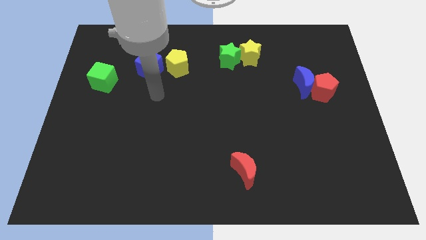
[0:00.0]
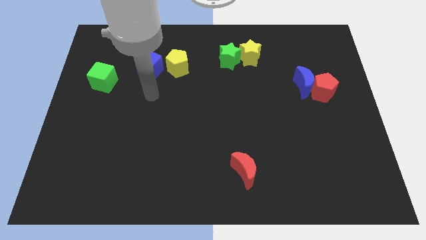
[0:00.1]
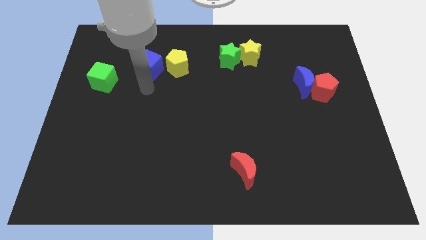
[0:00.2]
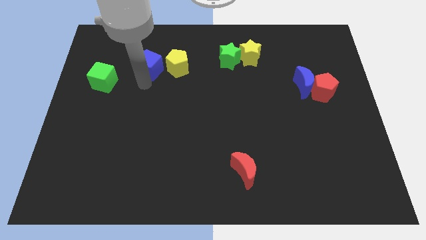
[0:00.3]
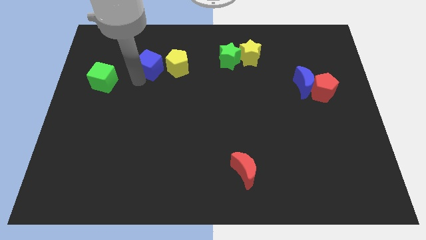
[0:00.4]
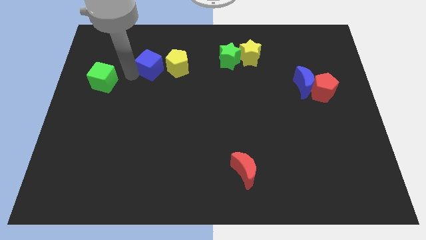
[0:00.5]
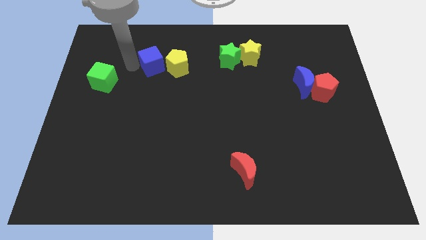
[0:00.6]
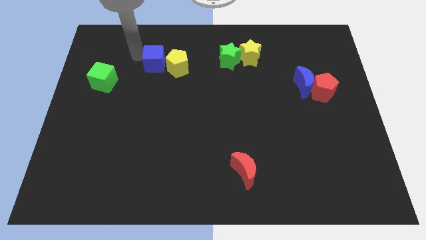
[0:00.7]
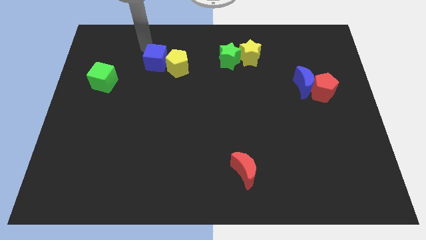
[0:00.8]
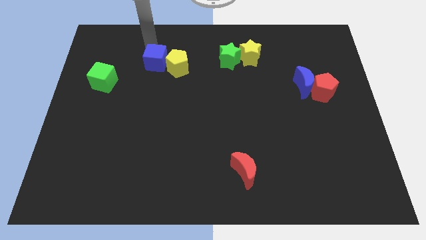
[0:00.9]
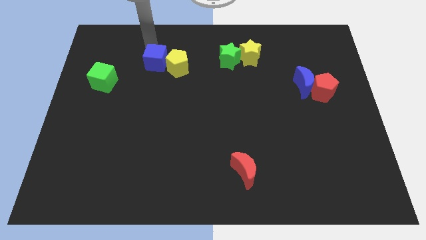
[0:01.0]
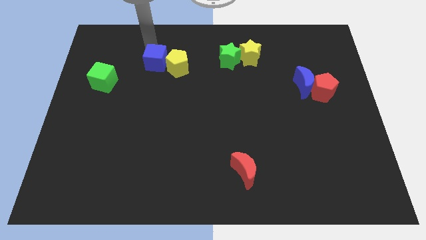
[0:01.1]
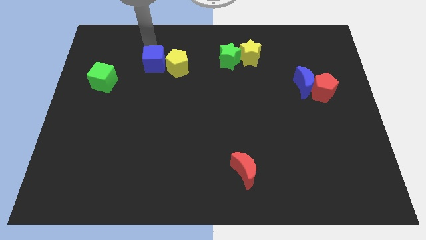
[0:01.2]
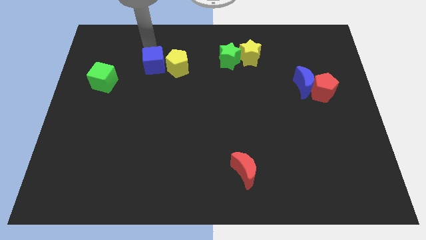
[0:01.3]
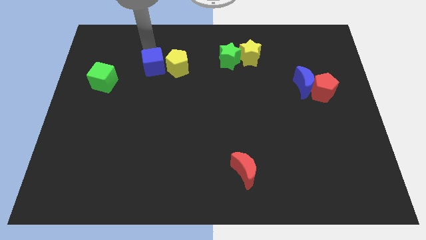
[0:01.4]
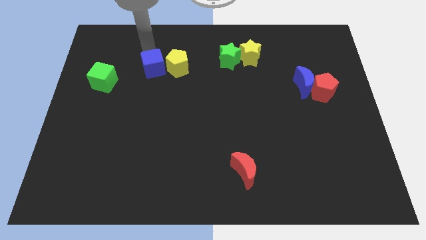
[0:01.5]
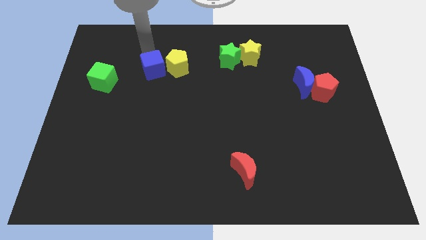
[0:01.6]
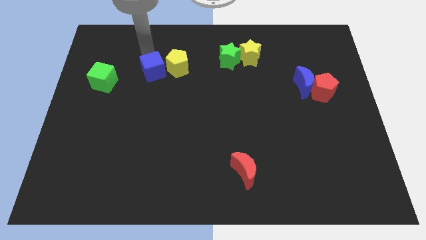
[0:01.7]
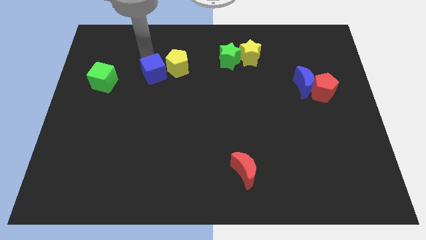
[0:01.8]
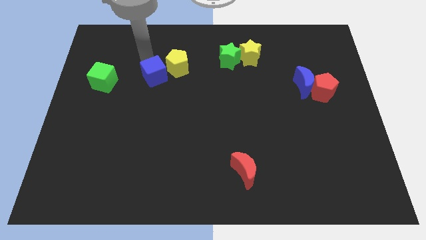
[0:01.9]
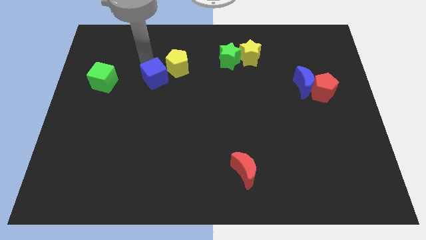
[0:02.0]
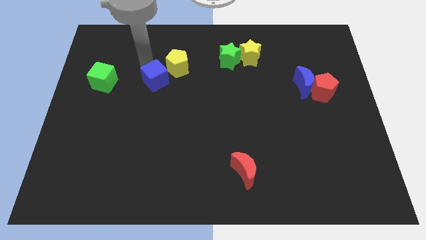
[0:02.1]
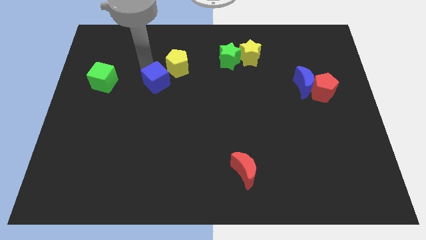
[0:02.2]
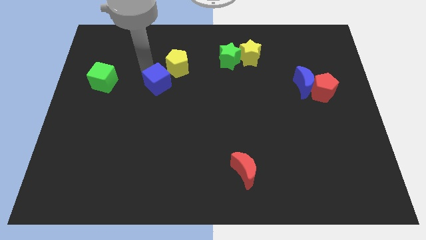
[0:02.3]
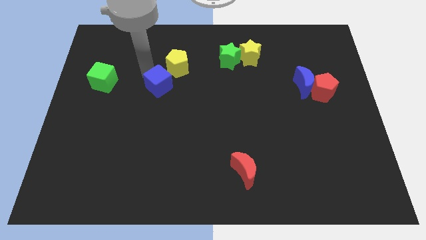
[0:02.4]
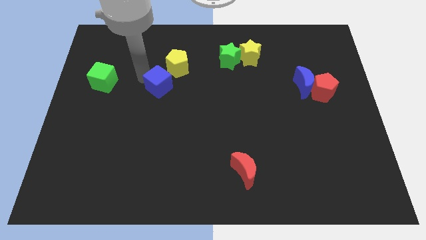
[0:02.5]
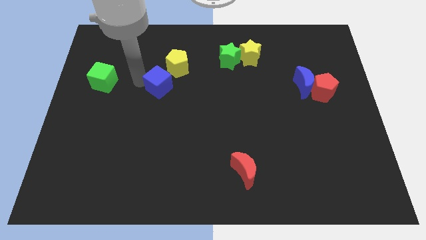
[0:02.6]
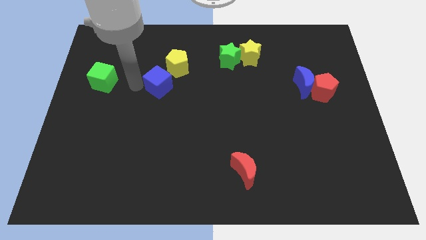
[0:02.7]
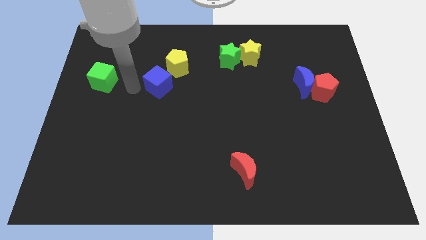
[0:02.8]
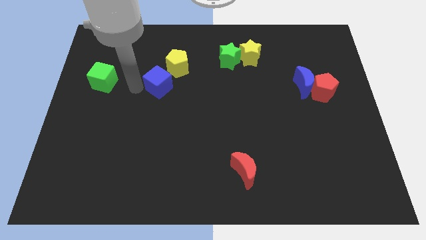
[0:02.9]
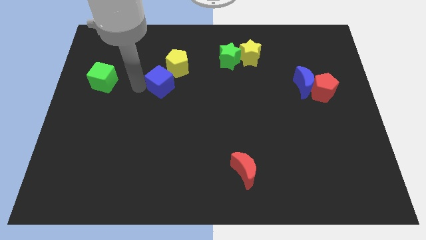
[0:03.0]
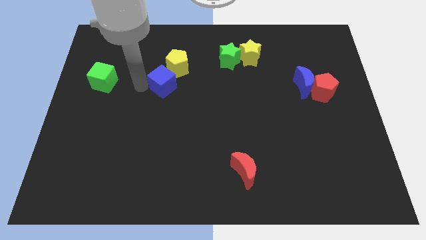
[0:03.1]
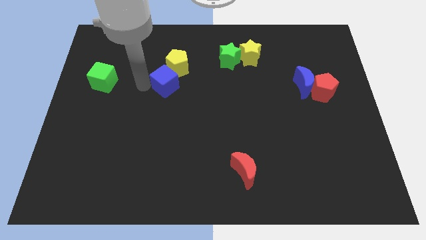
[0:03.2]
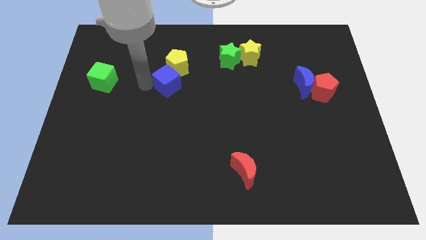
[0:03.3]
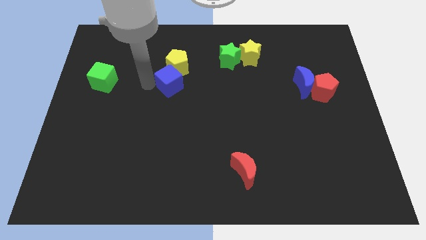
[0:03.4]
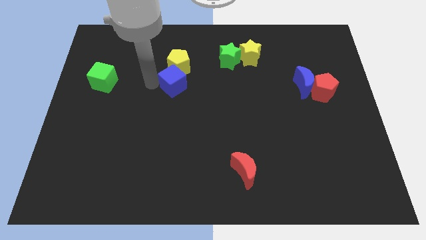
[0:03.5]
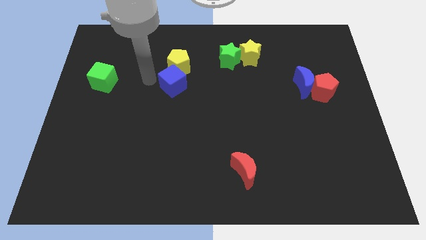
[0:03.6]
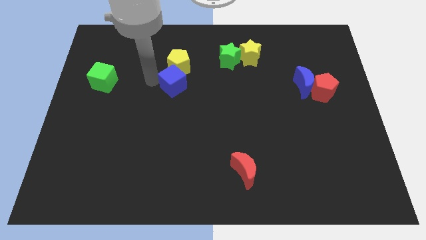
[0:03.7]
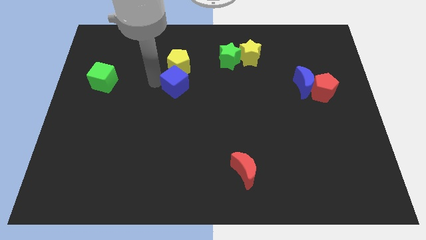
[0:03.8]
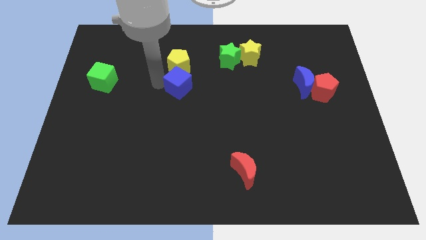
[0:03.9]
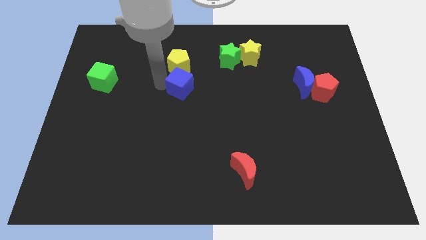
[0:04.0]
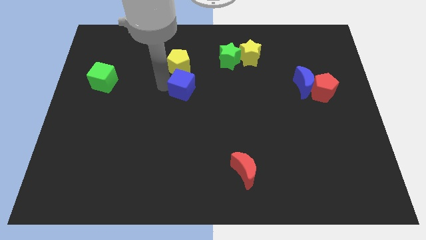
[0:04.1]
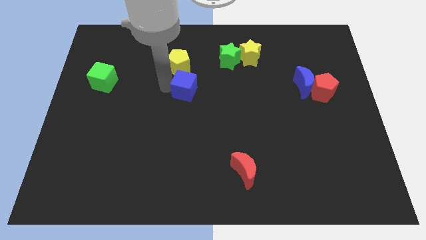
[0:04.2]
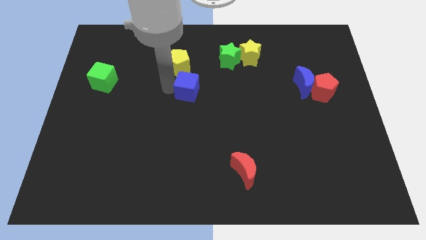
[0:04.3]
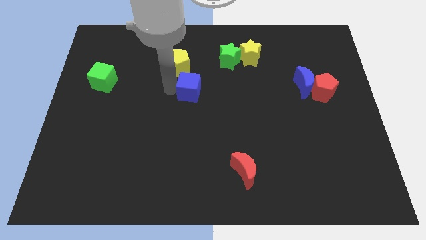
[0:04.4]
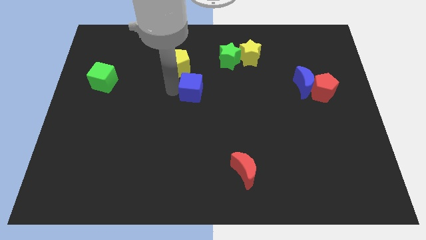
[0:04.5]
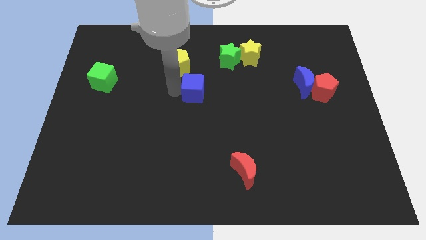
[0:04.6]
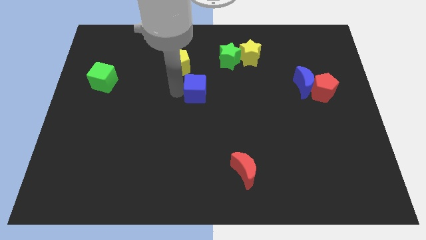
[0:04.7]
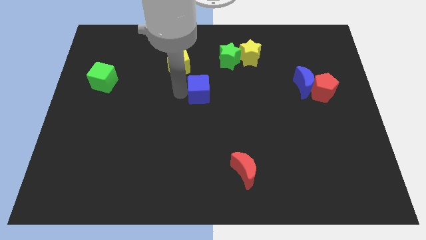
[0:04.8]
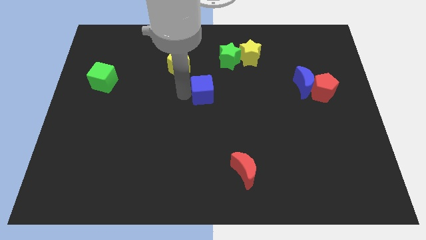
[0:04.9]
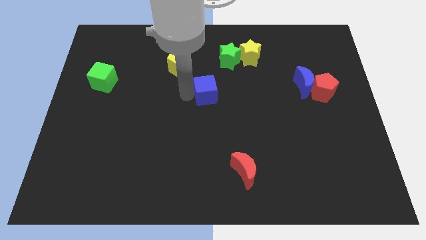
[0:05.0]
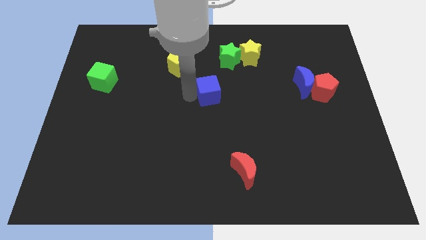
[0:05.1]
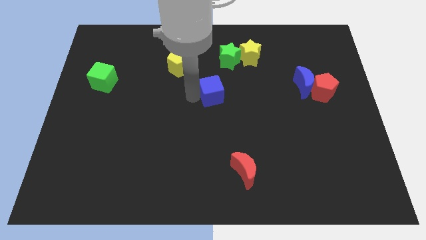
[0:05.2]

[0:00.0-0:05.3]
slide the blue cube below the green star

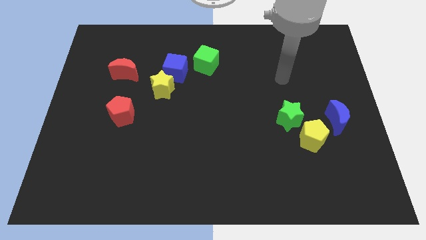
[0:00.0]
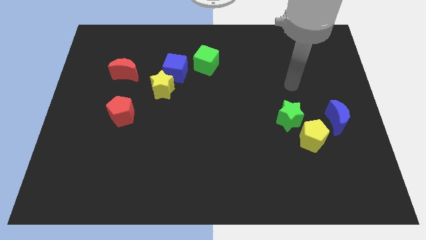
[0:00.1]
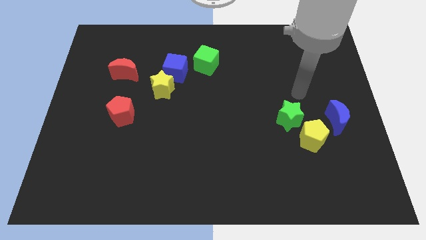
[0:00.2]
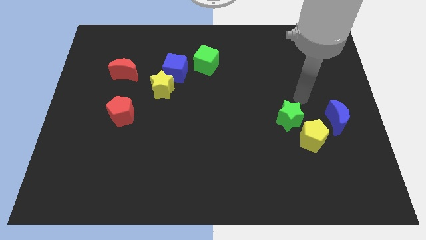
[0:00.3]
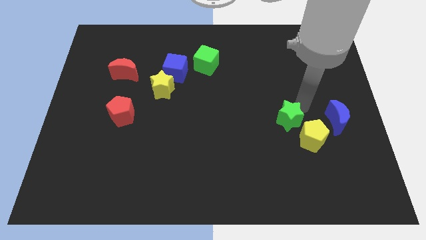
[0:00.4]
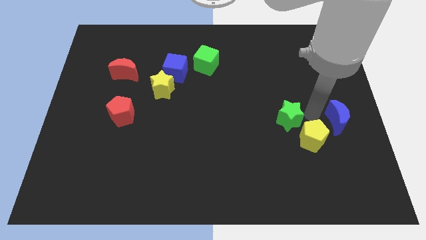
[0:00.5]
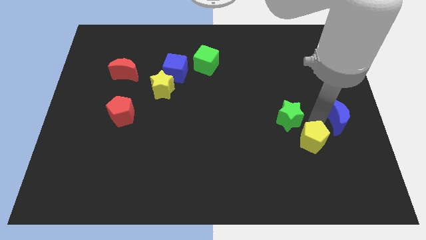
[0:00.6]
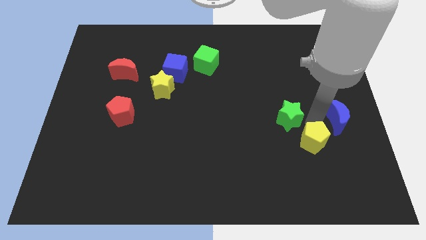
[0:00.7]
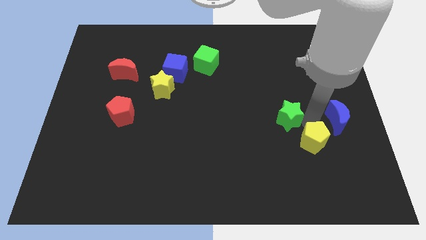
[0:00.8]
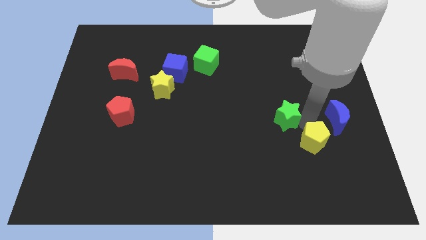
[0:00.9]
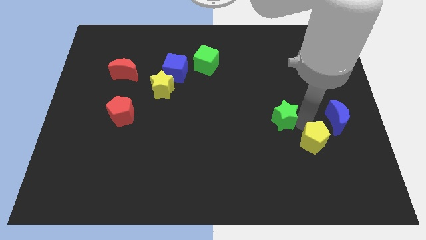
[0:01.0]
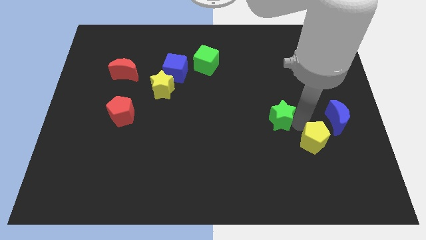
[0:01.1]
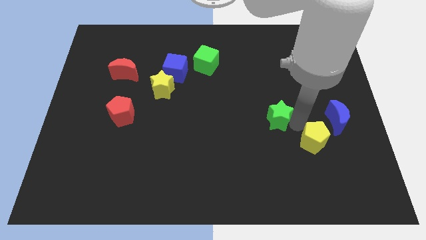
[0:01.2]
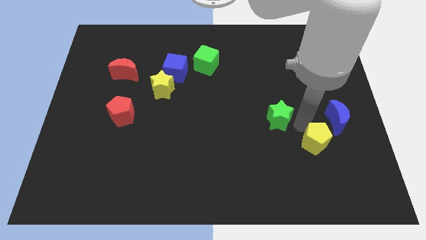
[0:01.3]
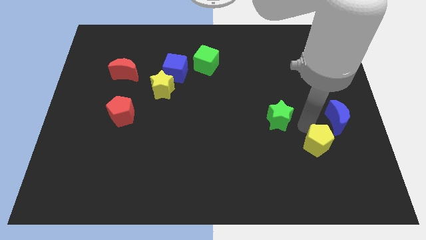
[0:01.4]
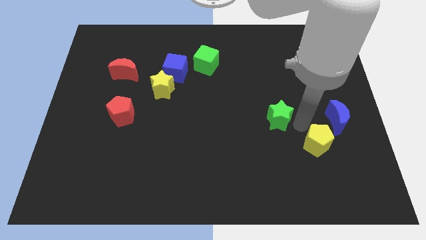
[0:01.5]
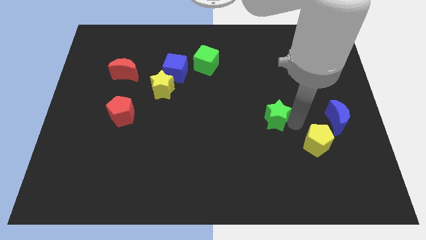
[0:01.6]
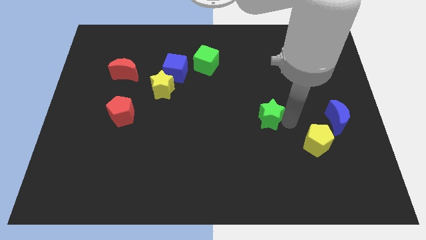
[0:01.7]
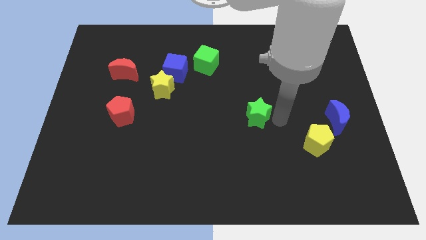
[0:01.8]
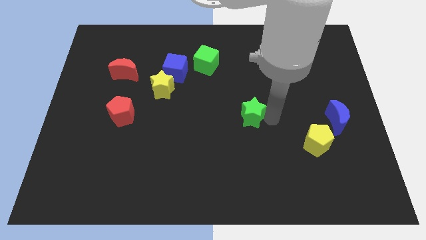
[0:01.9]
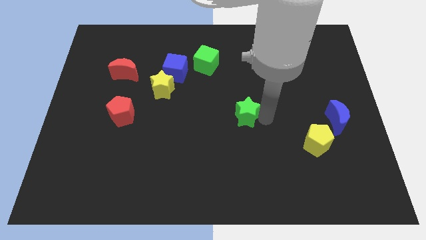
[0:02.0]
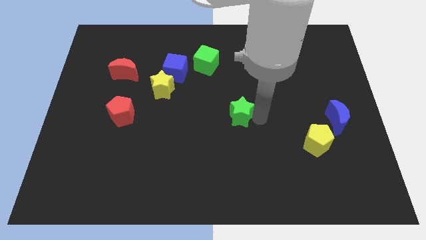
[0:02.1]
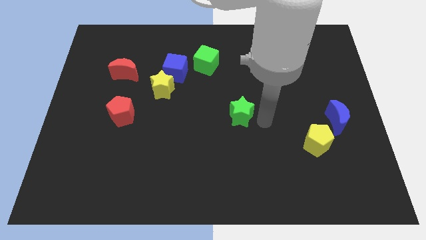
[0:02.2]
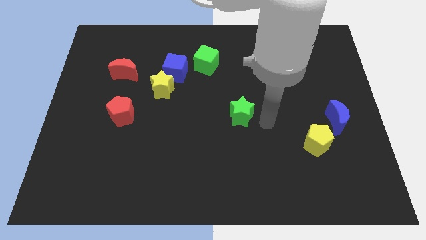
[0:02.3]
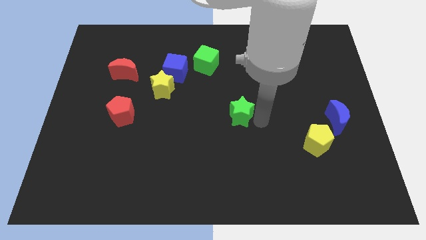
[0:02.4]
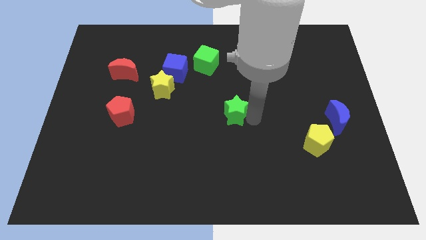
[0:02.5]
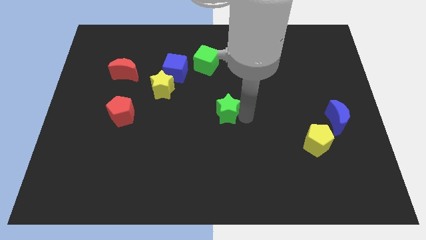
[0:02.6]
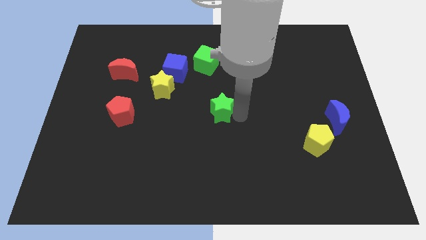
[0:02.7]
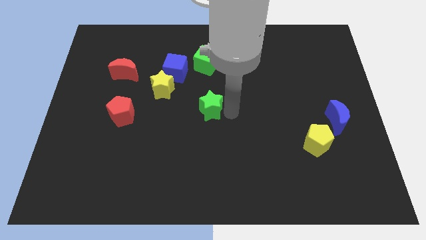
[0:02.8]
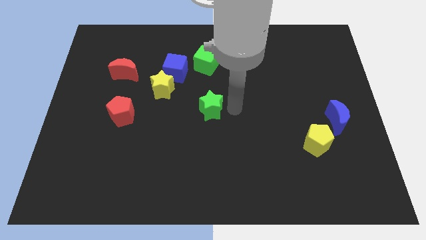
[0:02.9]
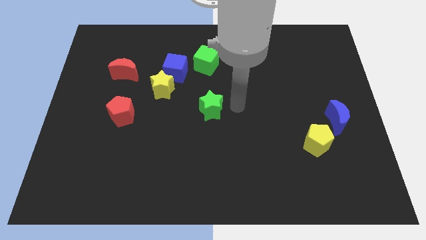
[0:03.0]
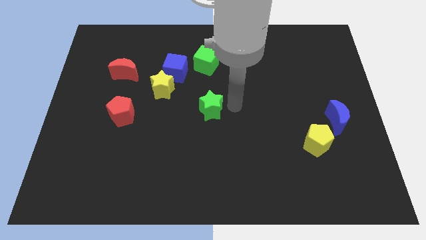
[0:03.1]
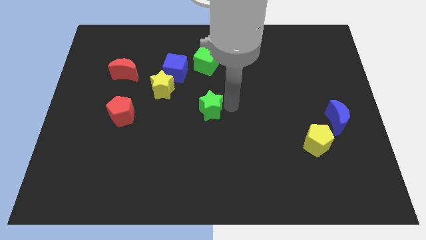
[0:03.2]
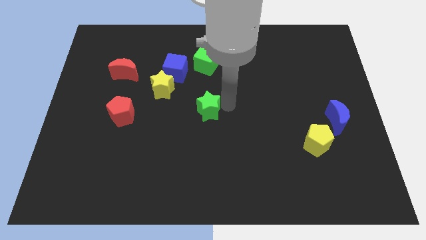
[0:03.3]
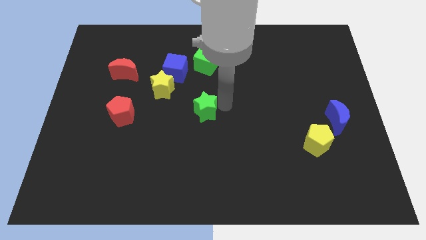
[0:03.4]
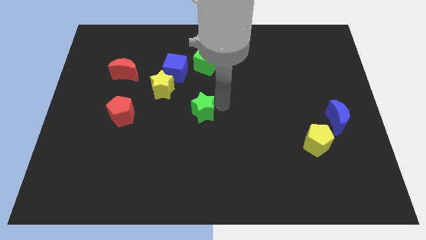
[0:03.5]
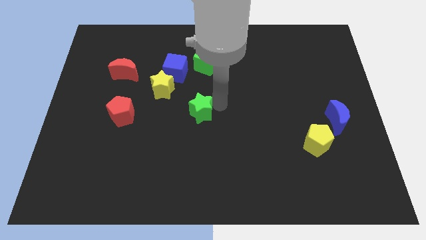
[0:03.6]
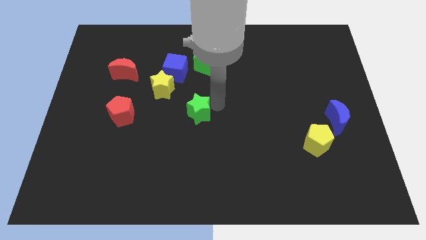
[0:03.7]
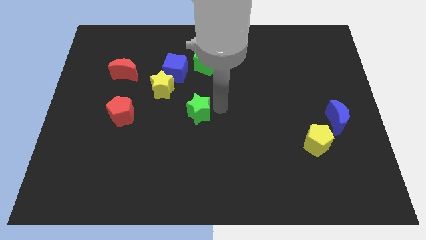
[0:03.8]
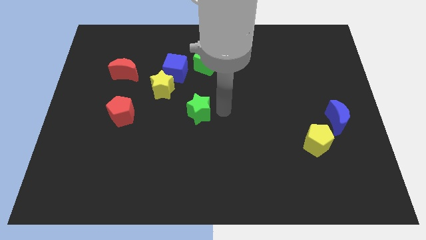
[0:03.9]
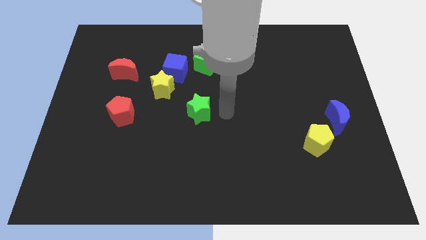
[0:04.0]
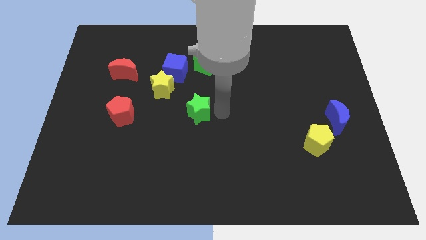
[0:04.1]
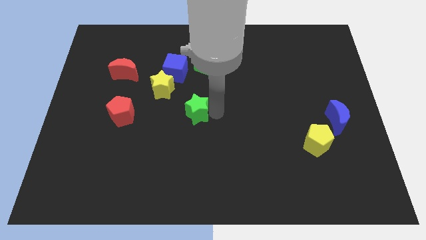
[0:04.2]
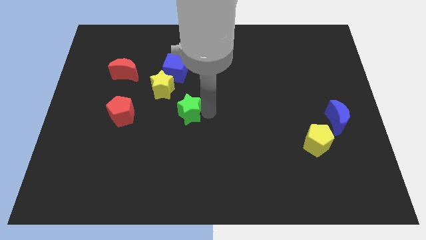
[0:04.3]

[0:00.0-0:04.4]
move the green star to the right of the red pentagon
